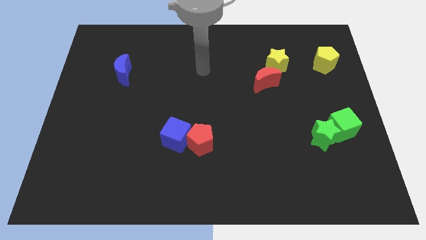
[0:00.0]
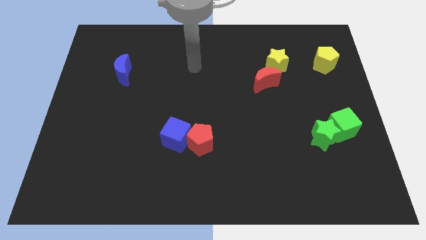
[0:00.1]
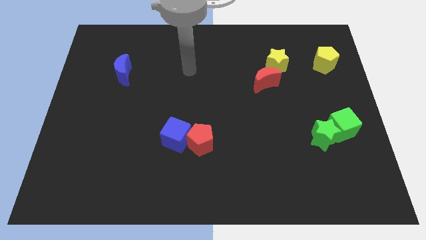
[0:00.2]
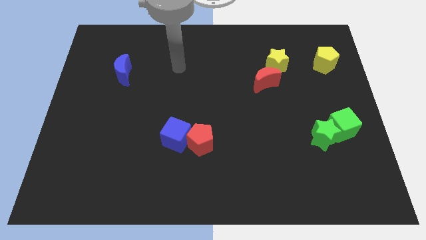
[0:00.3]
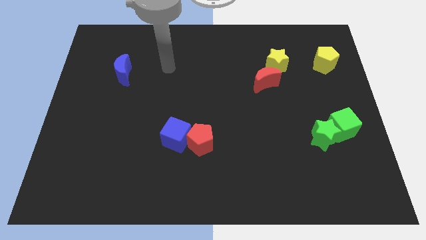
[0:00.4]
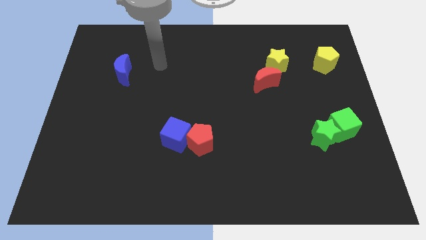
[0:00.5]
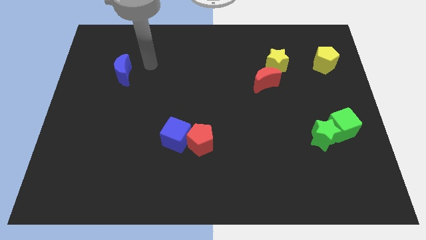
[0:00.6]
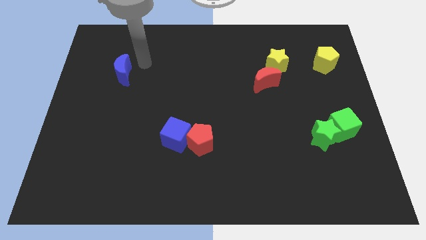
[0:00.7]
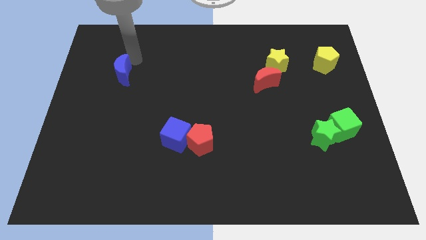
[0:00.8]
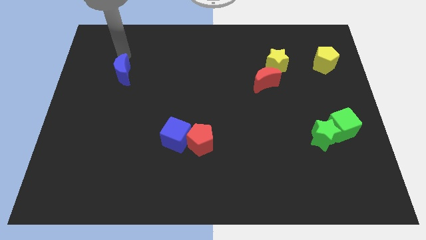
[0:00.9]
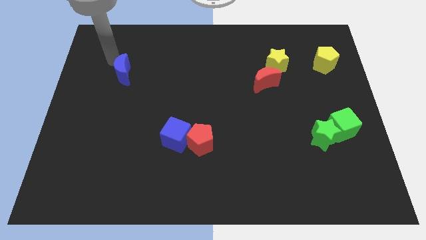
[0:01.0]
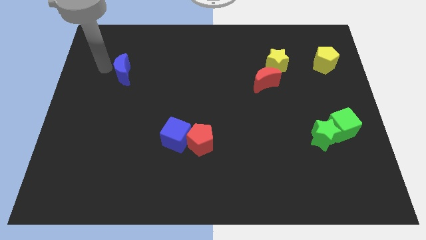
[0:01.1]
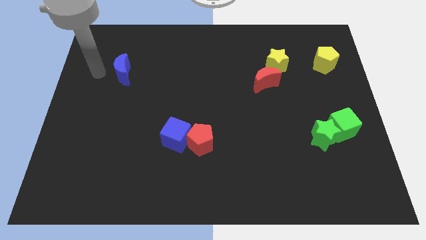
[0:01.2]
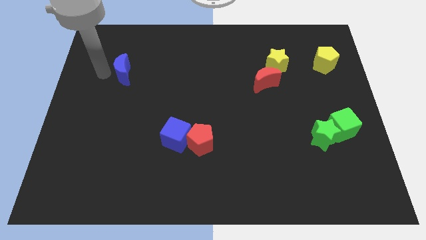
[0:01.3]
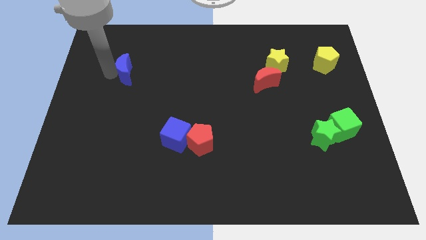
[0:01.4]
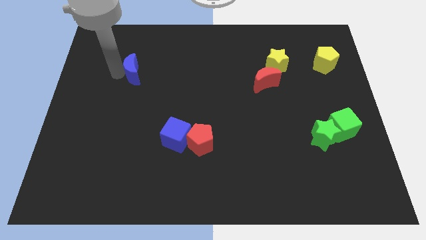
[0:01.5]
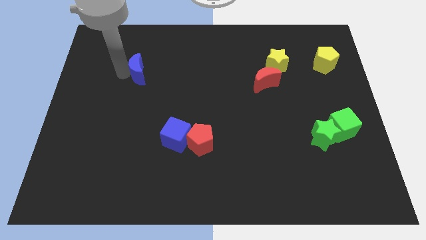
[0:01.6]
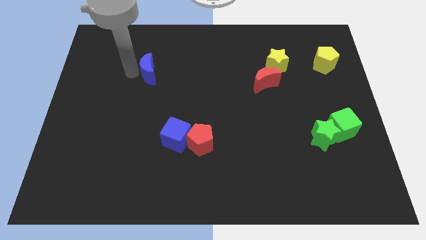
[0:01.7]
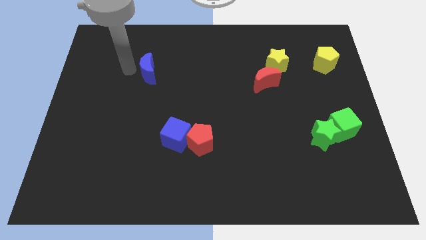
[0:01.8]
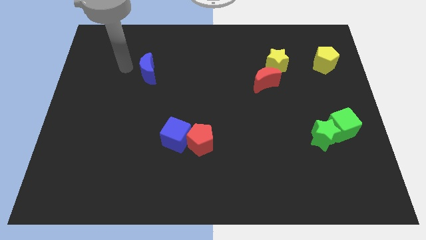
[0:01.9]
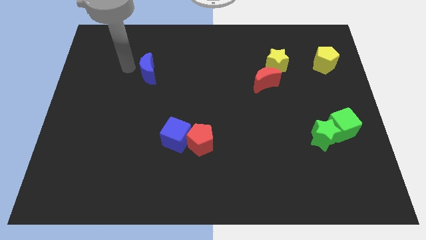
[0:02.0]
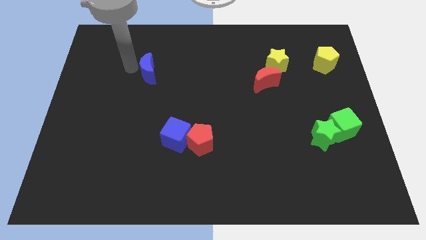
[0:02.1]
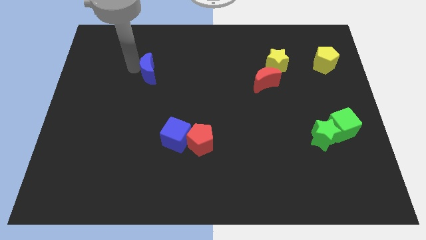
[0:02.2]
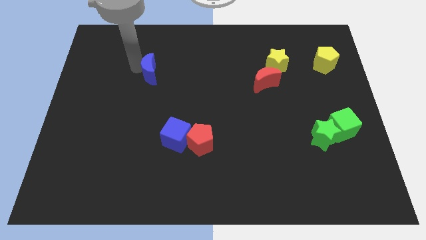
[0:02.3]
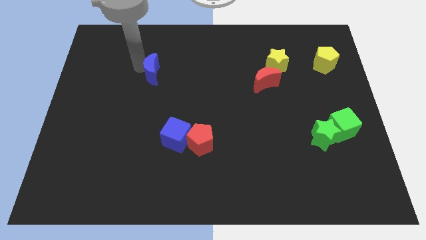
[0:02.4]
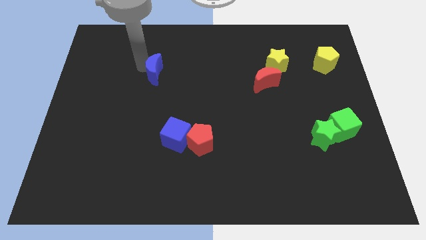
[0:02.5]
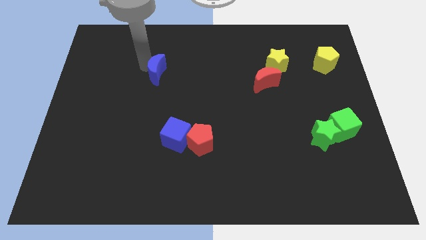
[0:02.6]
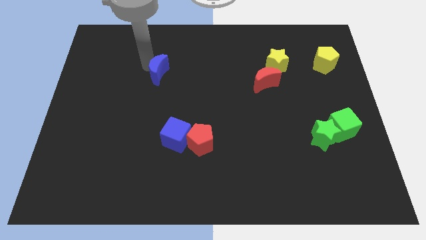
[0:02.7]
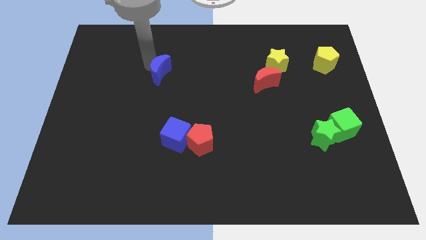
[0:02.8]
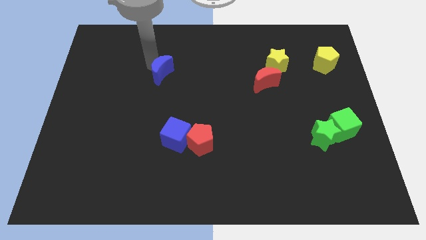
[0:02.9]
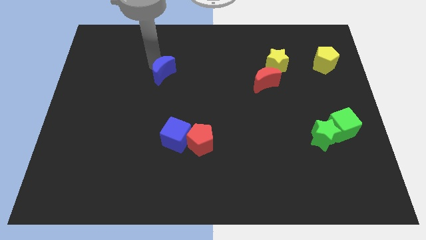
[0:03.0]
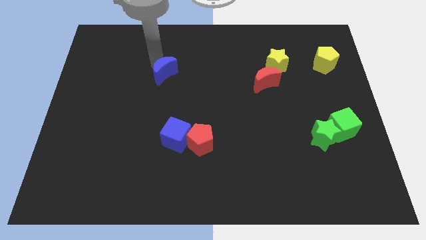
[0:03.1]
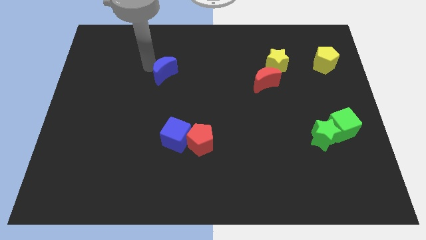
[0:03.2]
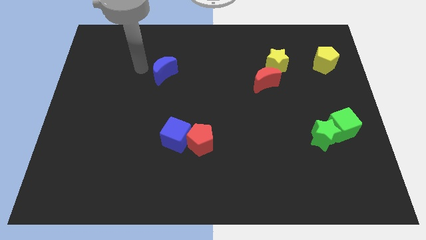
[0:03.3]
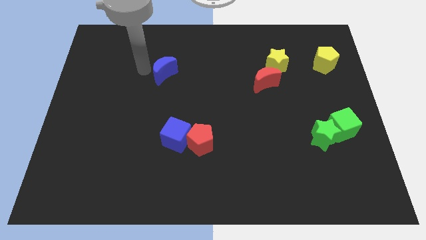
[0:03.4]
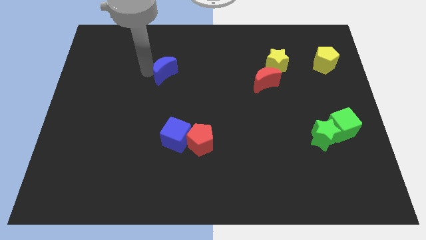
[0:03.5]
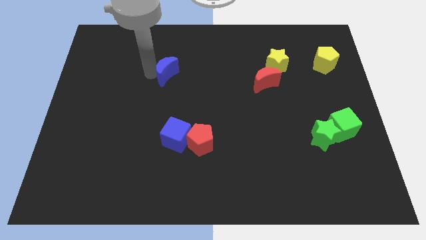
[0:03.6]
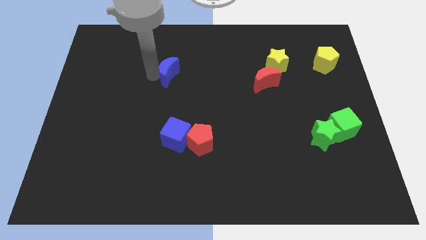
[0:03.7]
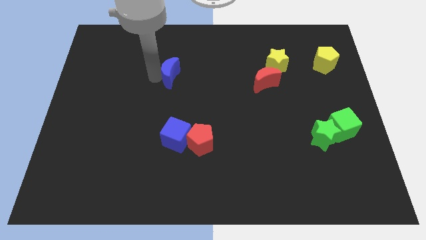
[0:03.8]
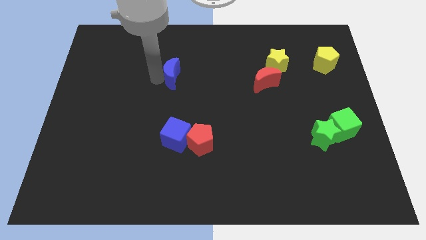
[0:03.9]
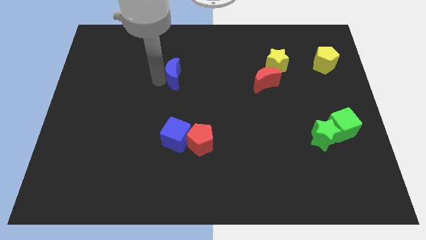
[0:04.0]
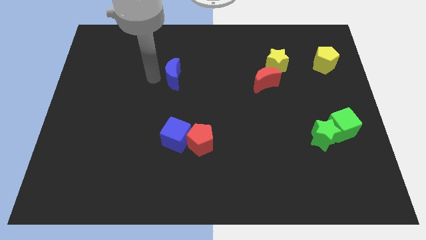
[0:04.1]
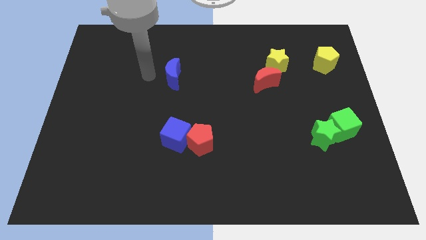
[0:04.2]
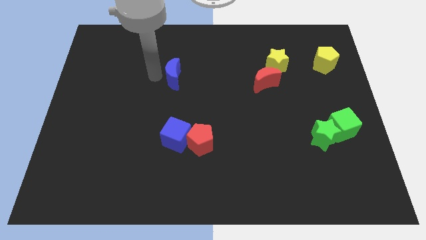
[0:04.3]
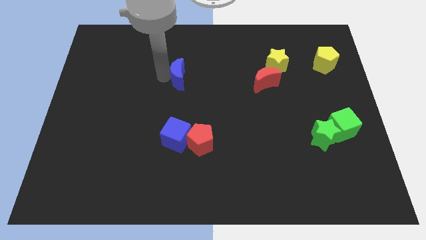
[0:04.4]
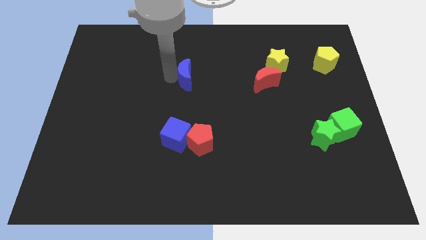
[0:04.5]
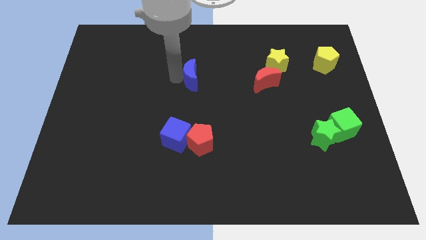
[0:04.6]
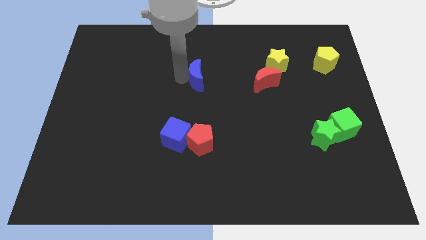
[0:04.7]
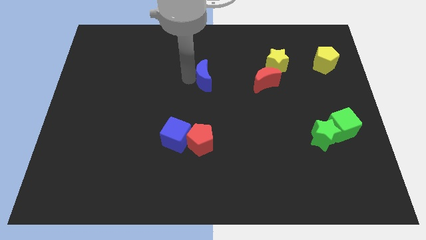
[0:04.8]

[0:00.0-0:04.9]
slide the blue moon to the left side of the red moon

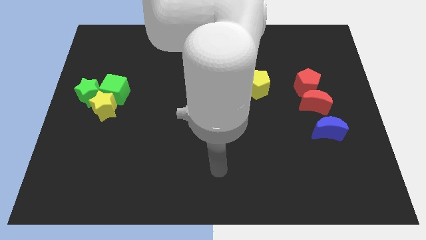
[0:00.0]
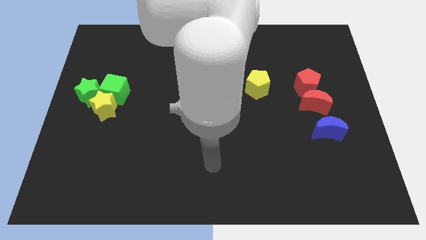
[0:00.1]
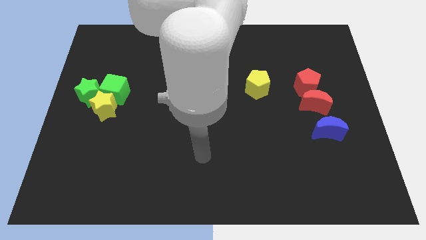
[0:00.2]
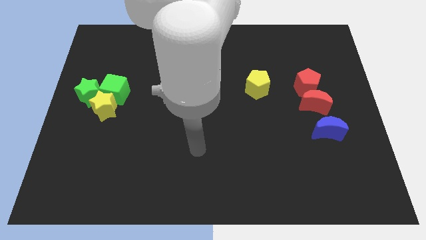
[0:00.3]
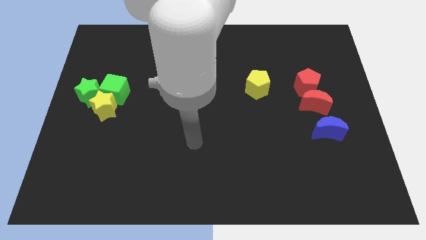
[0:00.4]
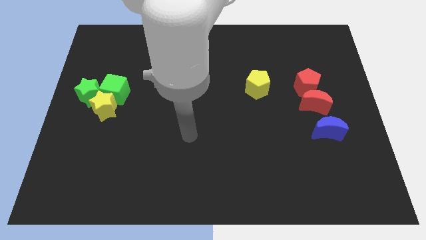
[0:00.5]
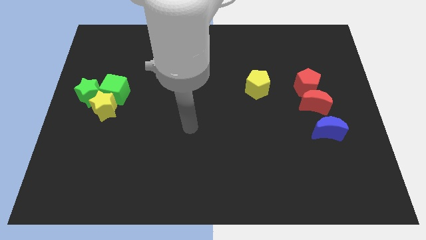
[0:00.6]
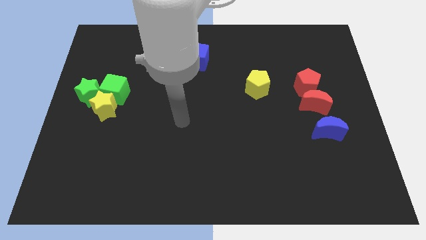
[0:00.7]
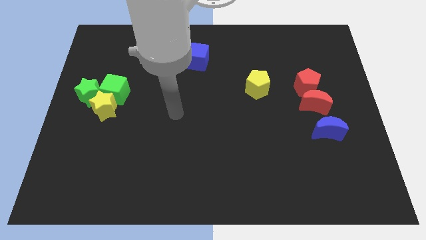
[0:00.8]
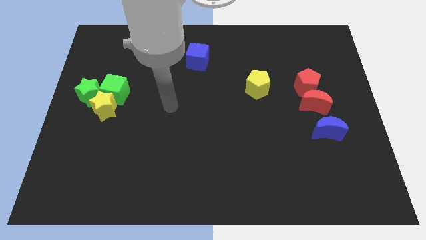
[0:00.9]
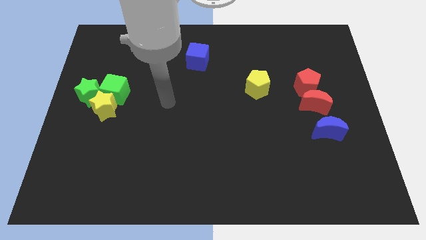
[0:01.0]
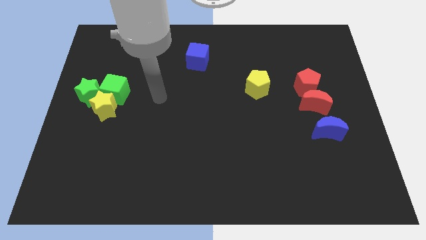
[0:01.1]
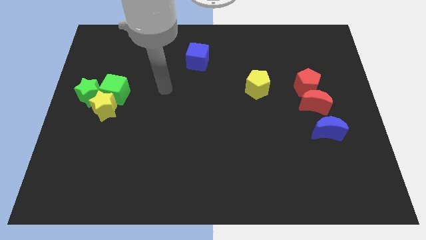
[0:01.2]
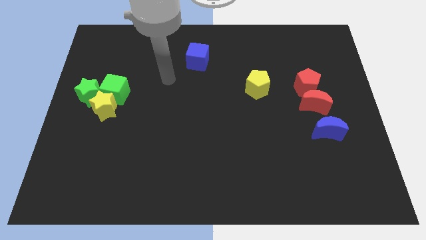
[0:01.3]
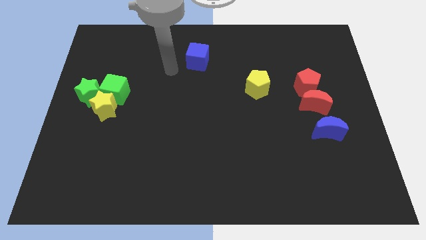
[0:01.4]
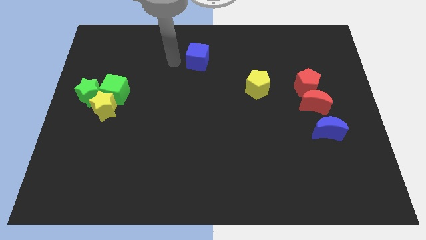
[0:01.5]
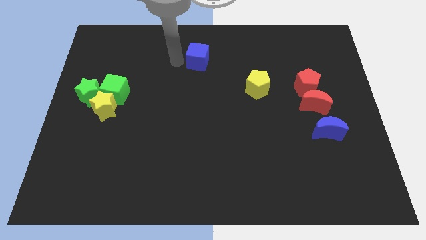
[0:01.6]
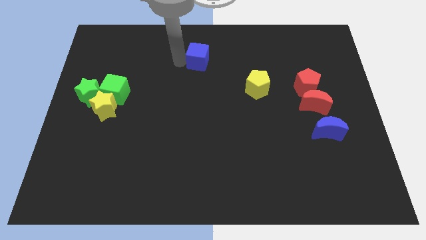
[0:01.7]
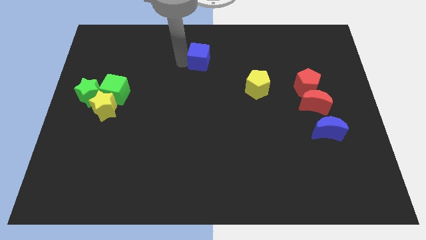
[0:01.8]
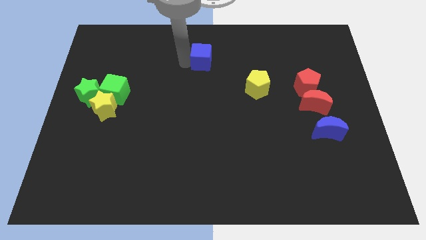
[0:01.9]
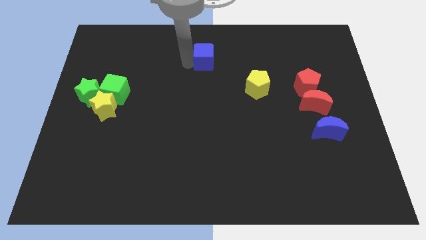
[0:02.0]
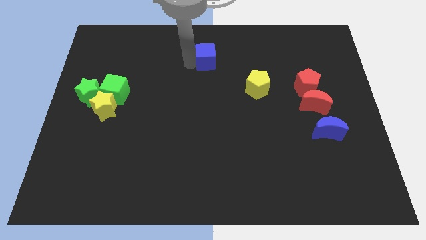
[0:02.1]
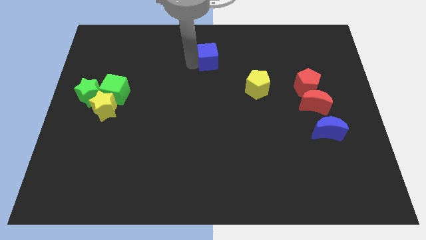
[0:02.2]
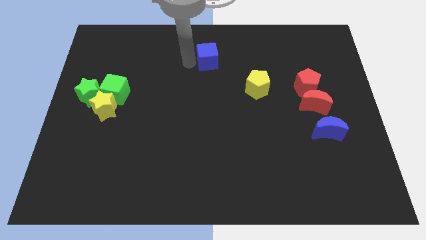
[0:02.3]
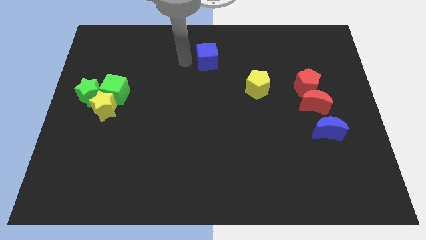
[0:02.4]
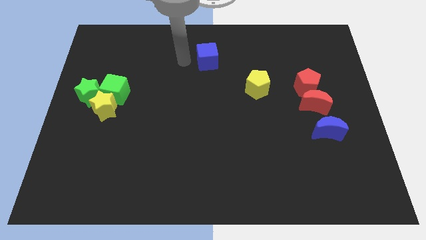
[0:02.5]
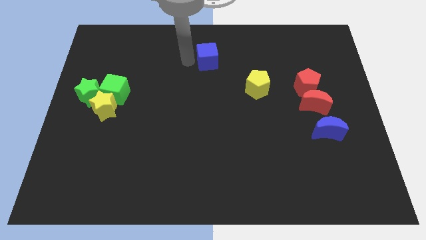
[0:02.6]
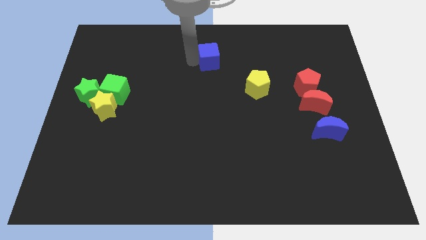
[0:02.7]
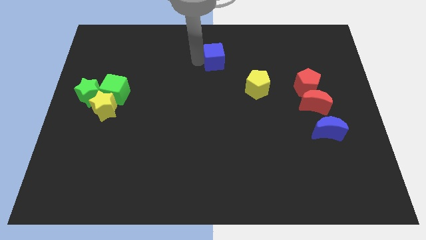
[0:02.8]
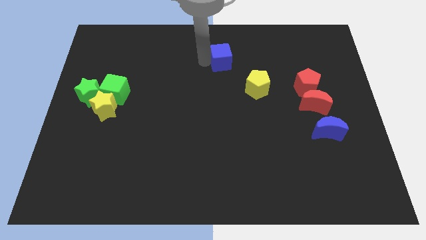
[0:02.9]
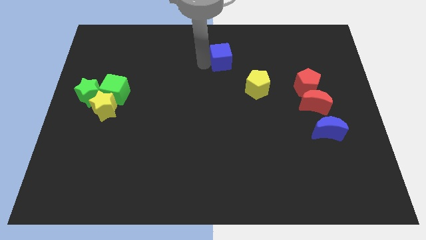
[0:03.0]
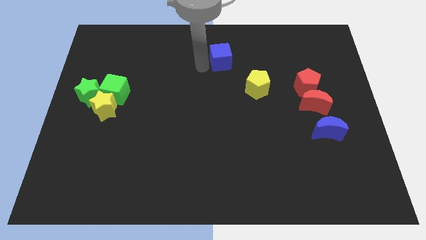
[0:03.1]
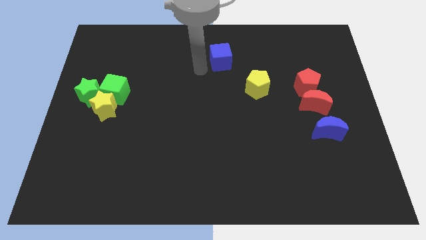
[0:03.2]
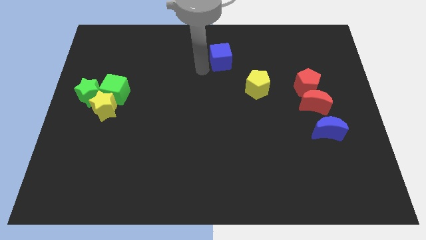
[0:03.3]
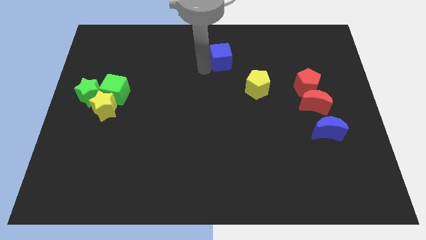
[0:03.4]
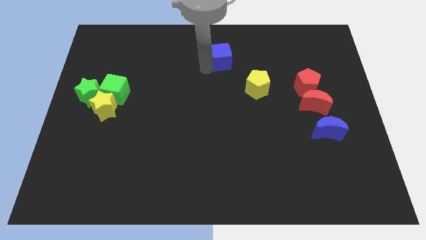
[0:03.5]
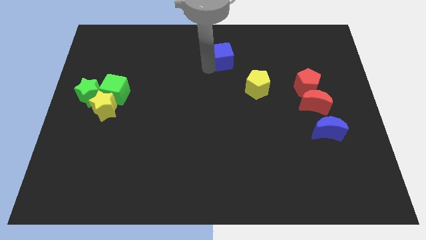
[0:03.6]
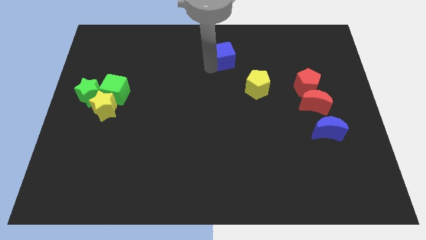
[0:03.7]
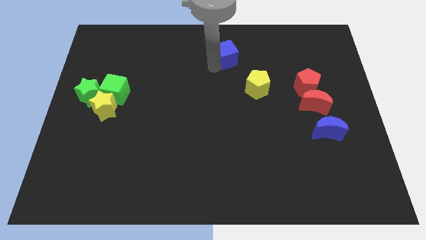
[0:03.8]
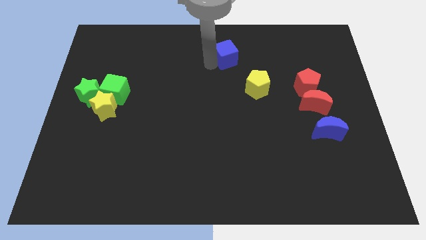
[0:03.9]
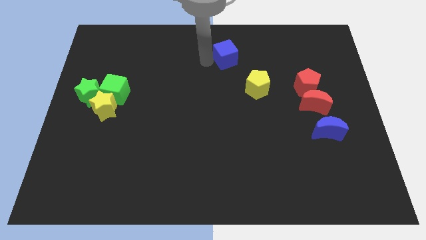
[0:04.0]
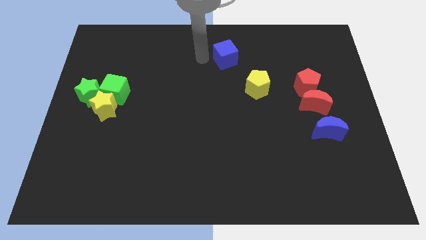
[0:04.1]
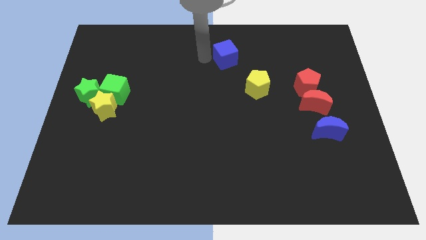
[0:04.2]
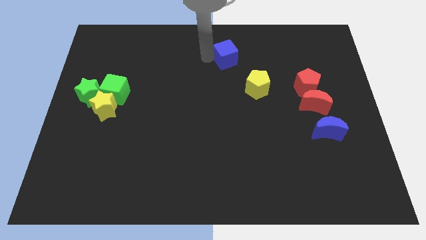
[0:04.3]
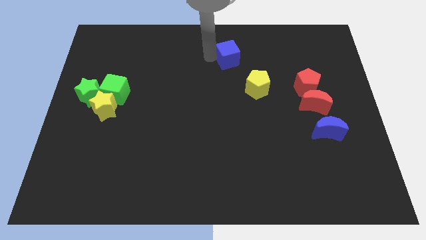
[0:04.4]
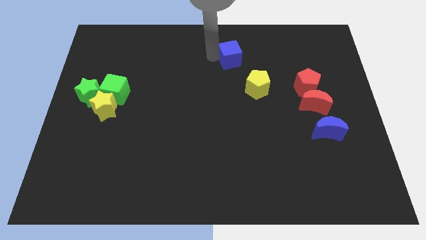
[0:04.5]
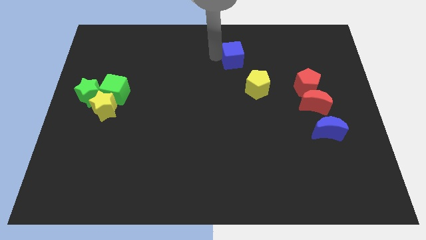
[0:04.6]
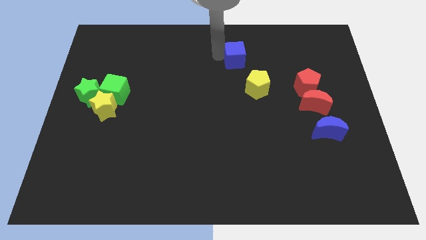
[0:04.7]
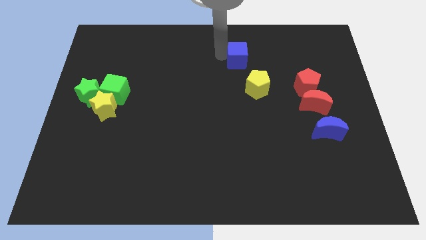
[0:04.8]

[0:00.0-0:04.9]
move the blue cube to the top of the yellow pentagon
